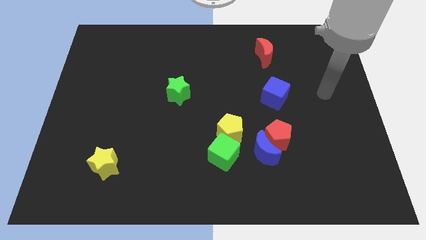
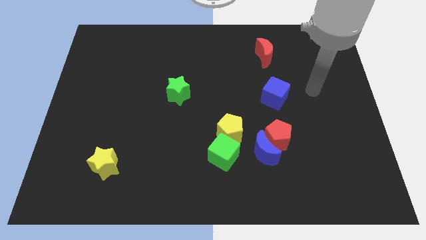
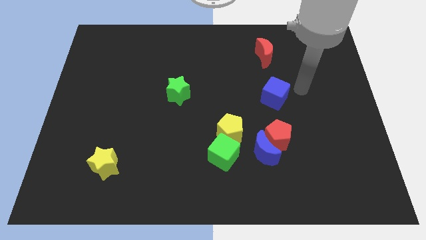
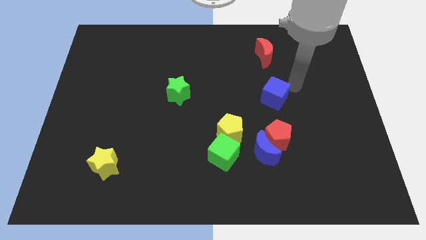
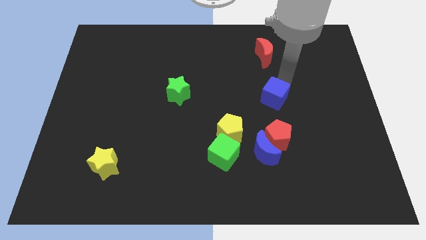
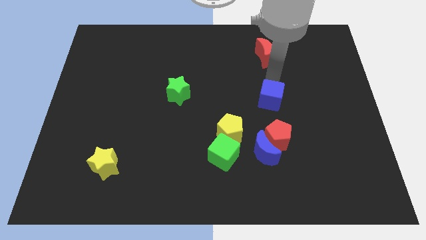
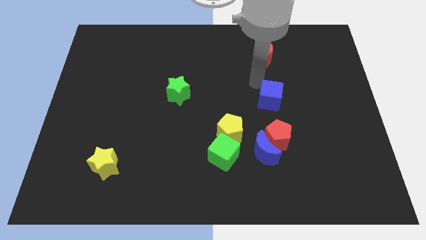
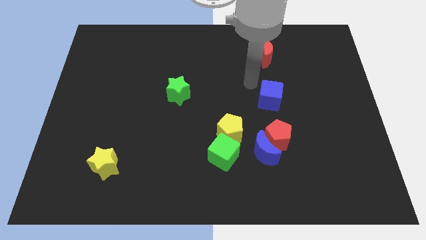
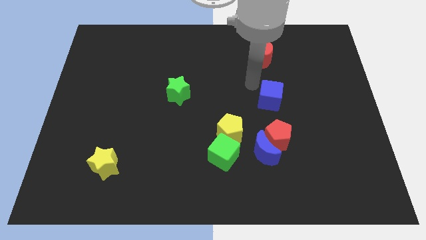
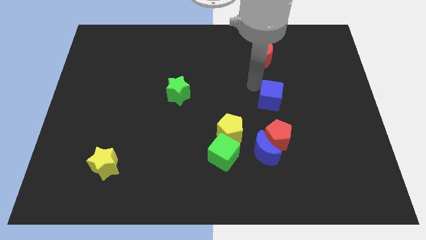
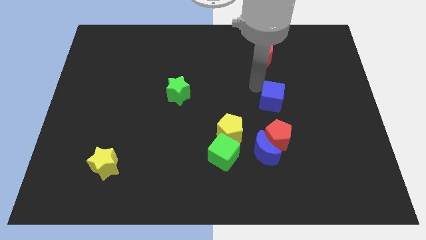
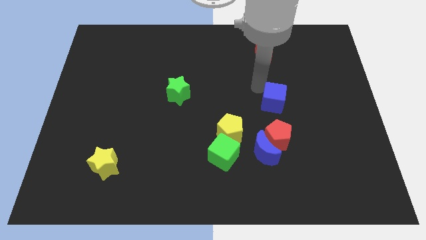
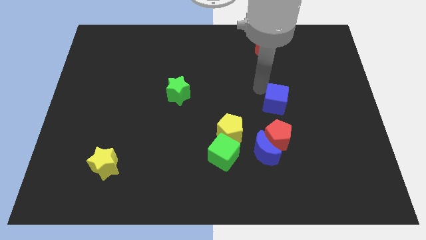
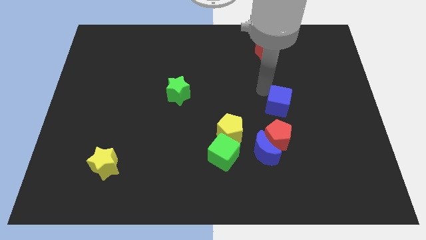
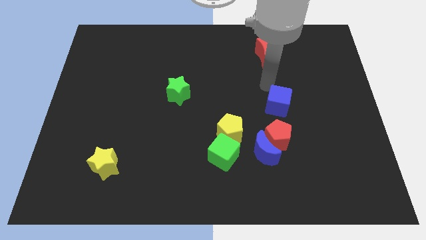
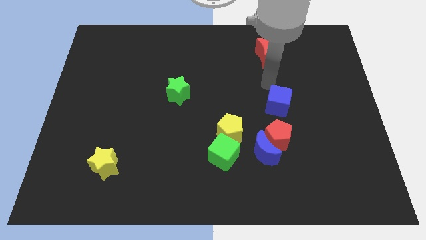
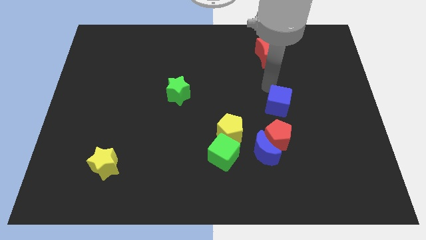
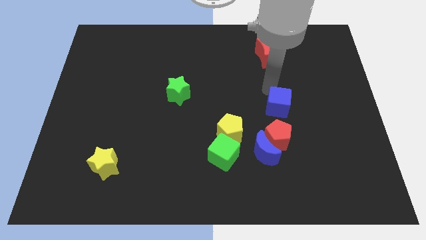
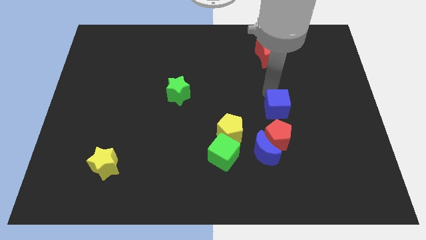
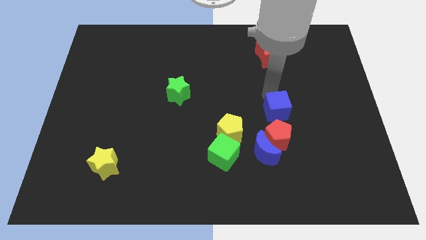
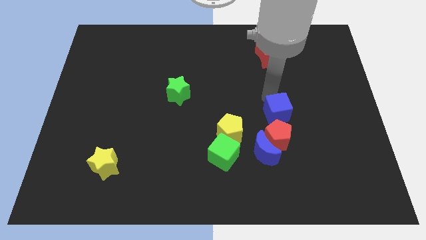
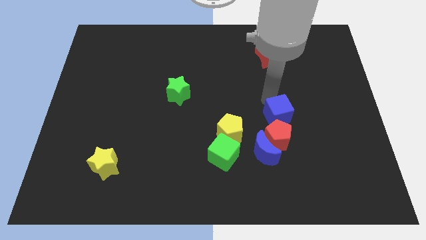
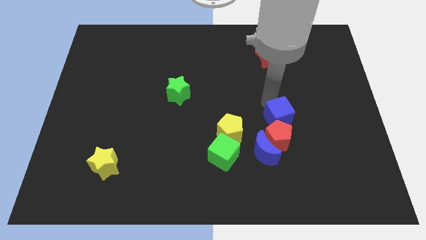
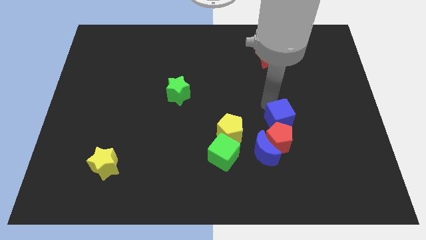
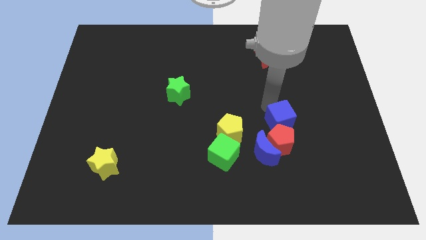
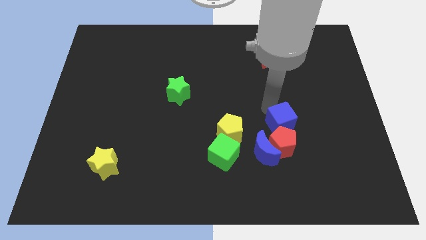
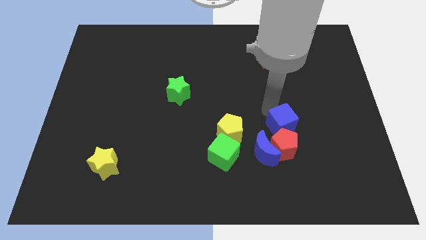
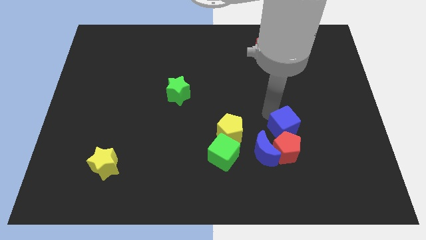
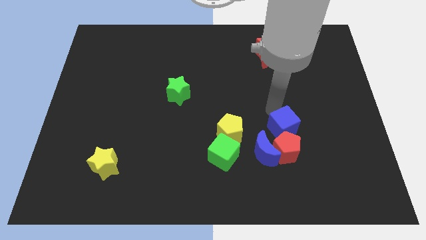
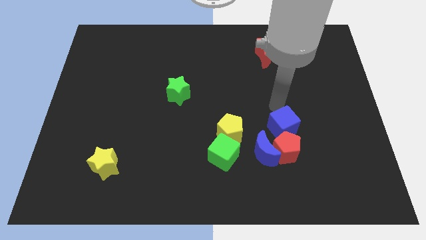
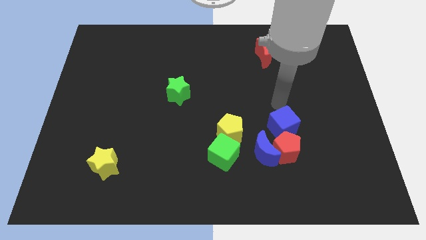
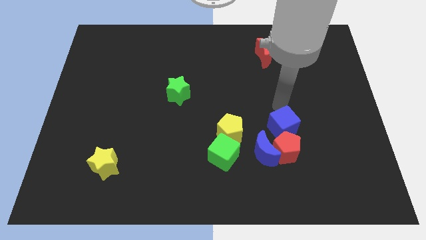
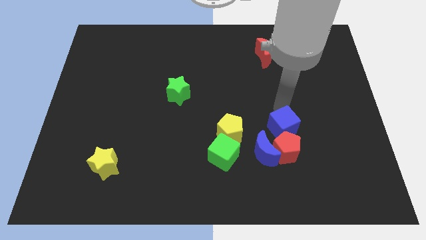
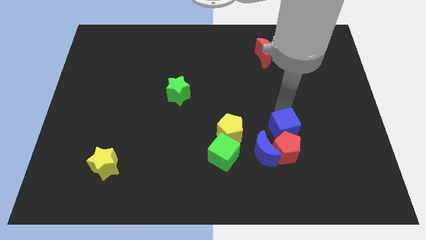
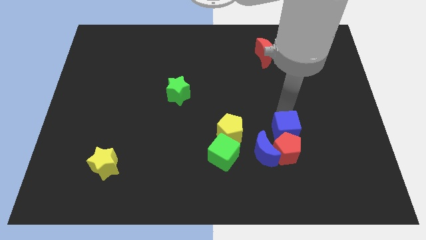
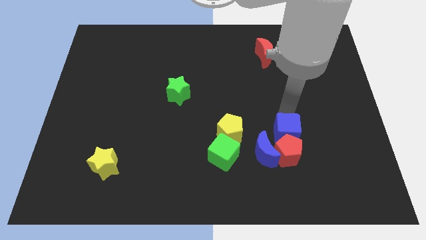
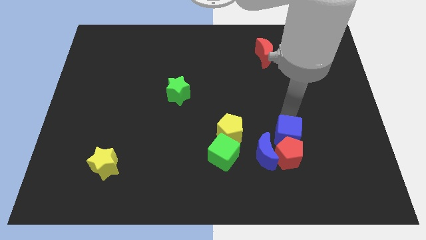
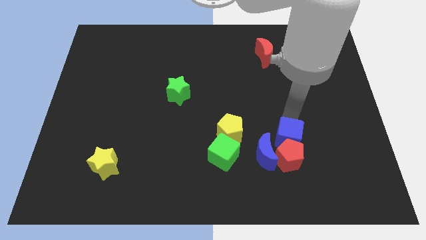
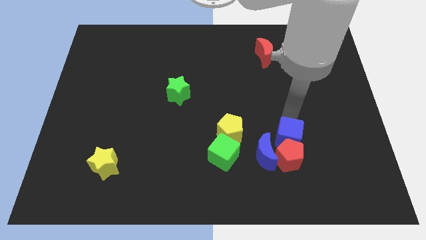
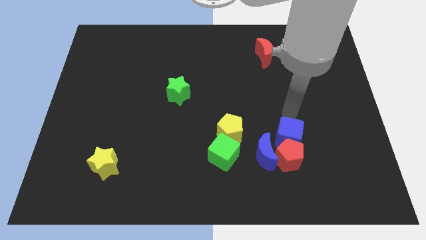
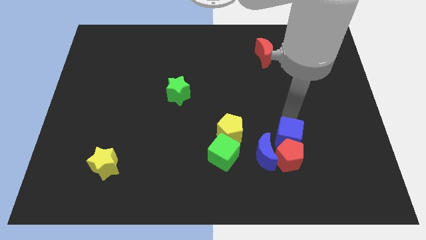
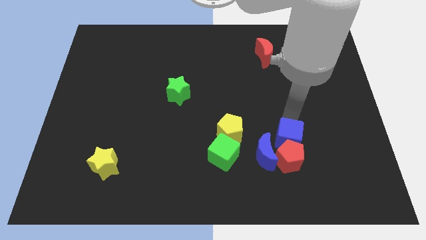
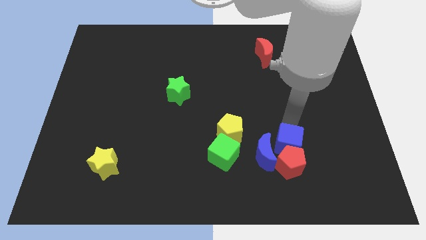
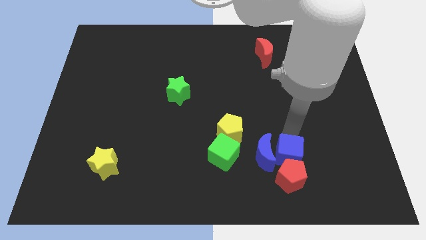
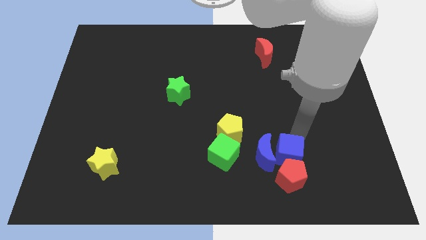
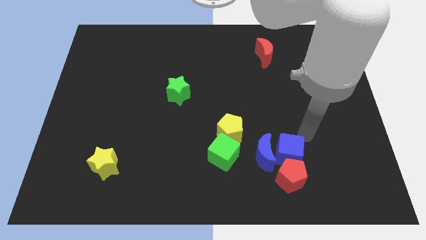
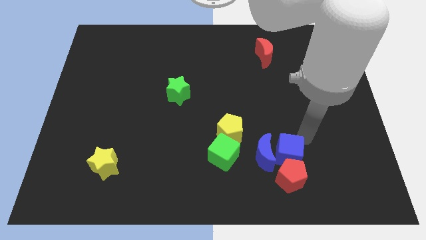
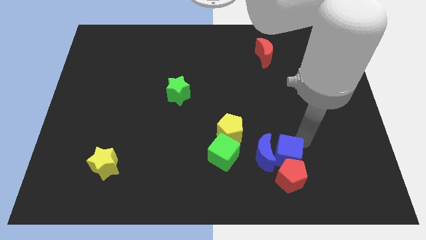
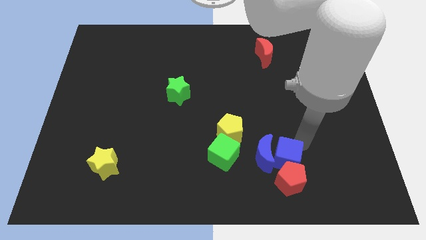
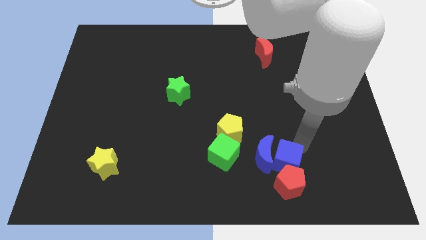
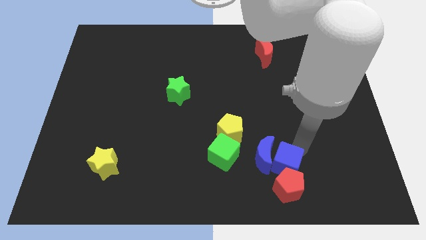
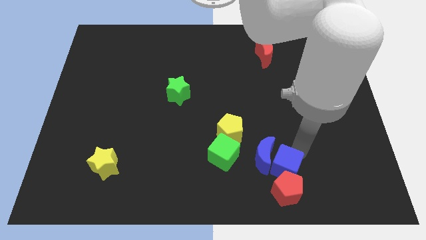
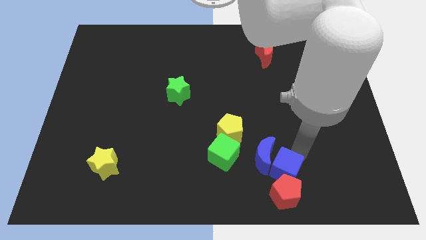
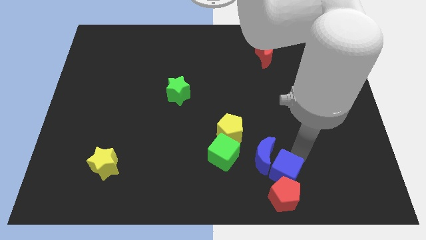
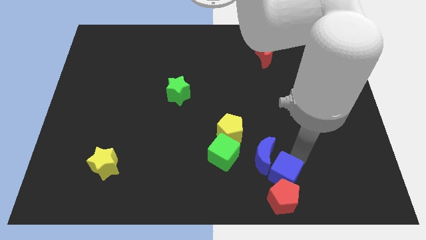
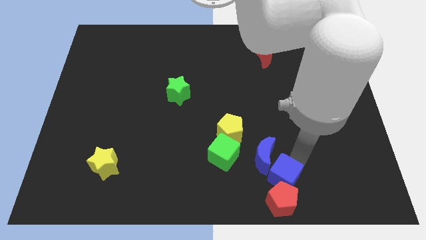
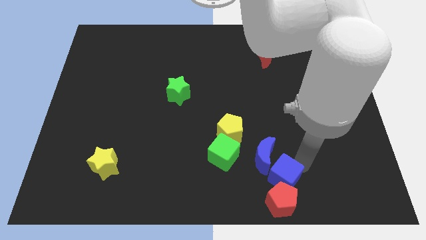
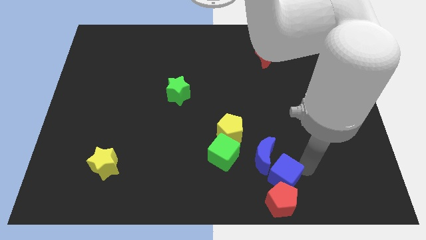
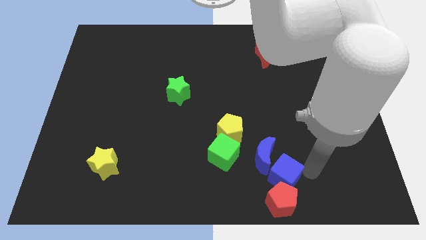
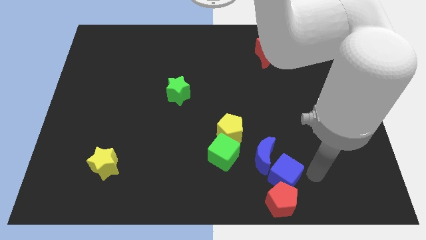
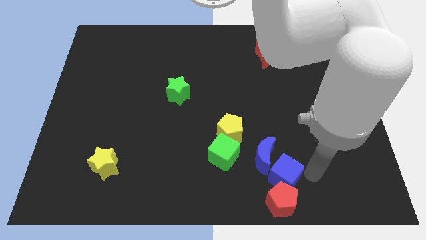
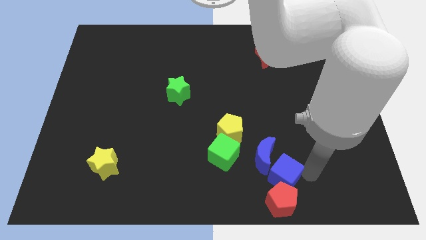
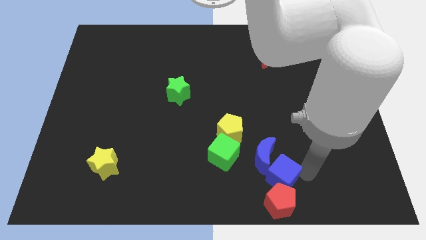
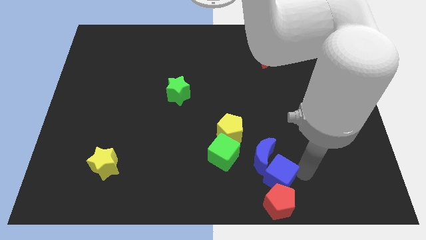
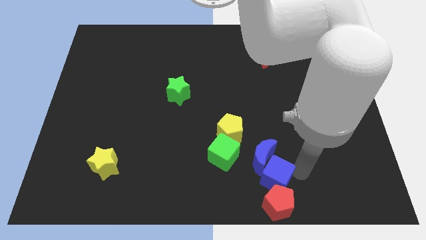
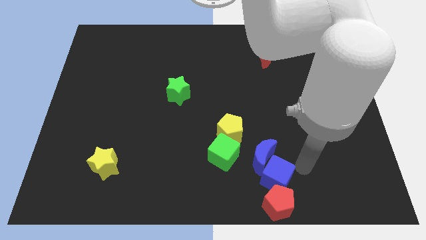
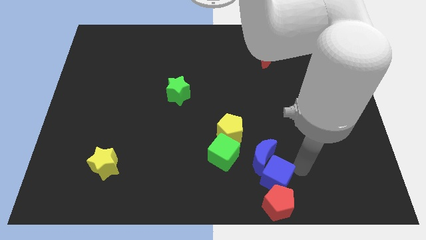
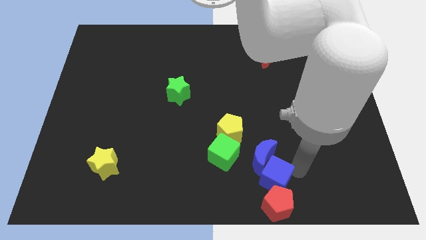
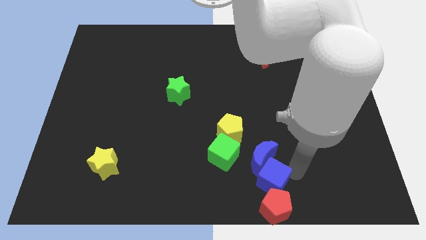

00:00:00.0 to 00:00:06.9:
slide the blue cube to the bottom side
